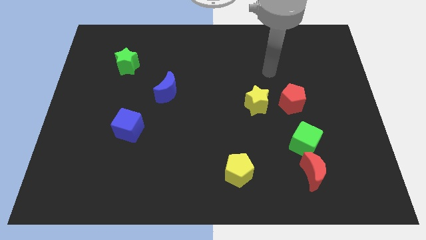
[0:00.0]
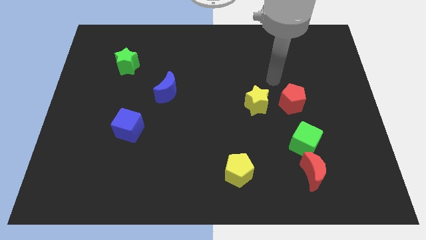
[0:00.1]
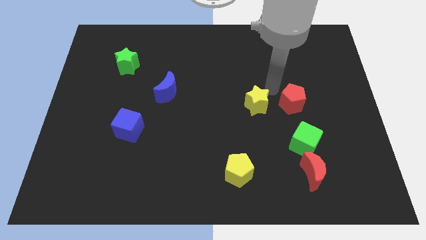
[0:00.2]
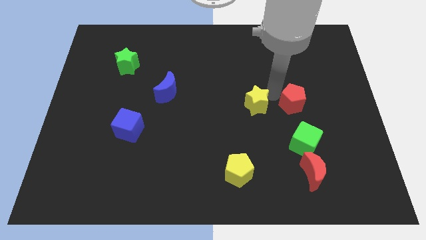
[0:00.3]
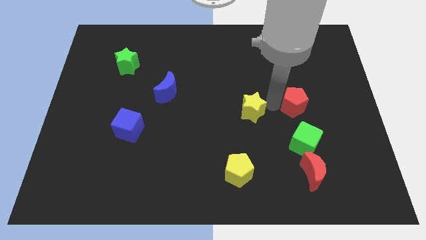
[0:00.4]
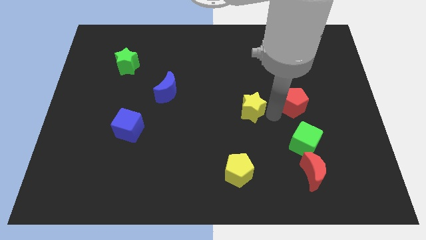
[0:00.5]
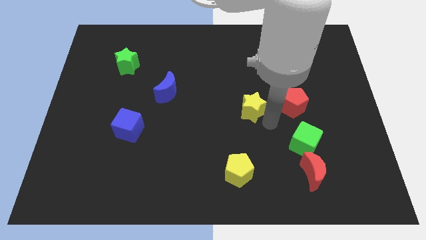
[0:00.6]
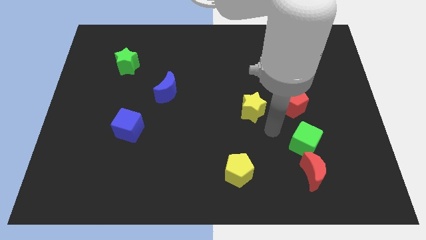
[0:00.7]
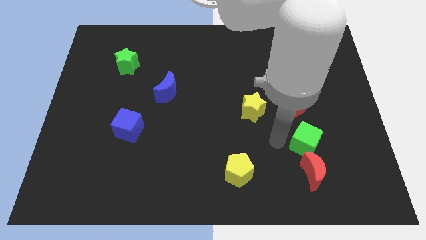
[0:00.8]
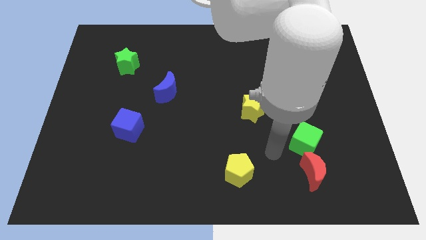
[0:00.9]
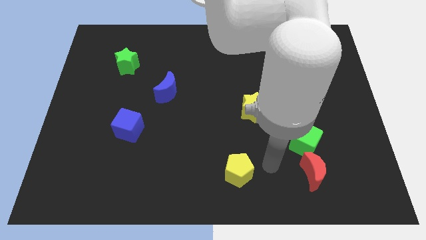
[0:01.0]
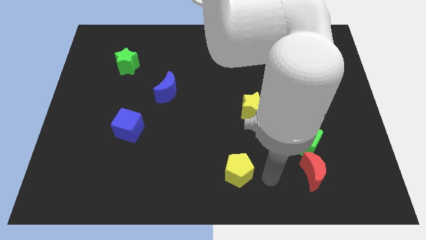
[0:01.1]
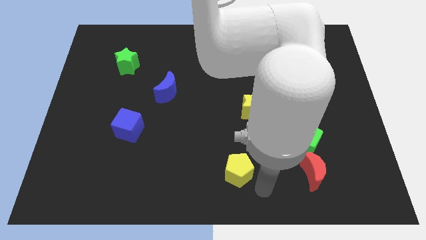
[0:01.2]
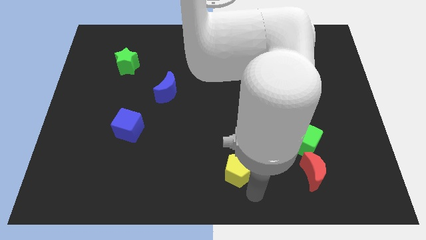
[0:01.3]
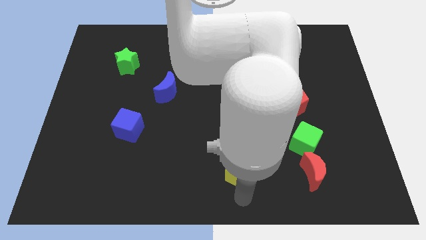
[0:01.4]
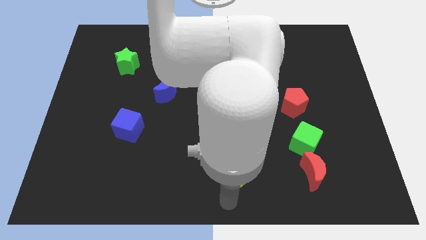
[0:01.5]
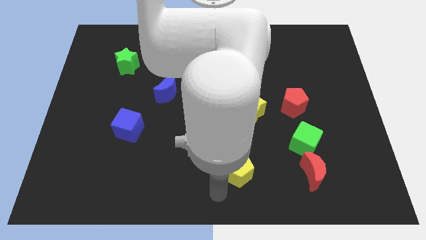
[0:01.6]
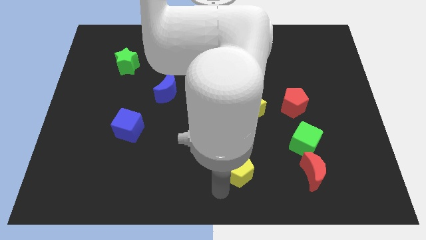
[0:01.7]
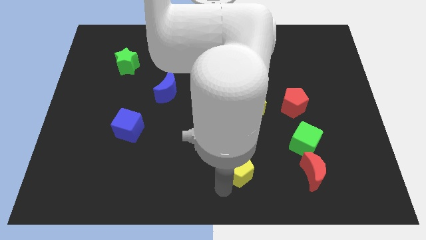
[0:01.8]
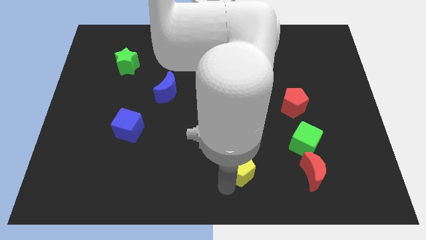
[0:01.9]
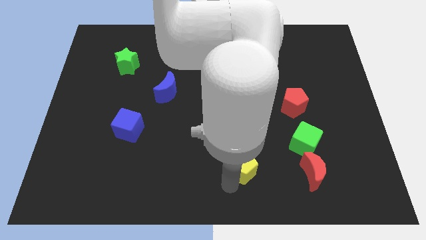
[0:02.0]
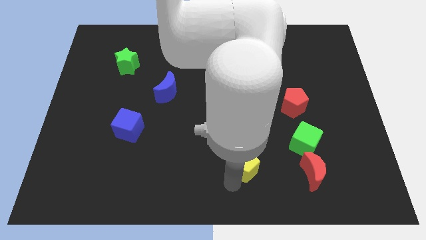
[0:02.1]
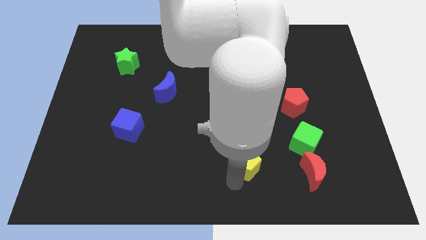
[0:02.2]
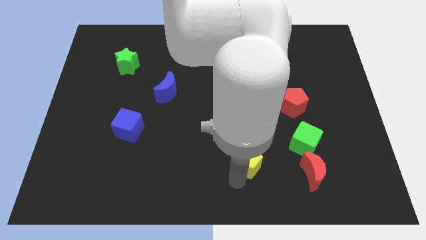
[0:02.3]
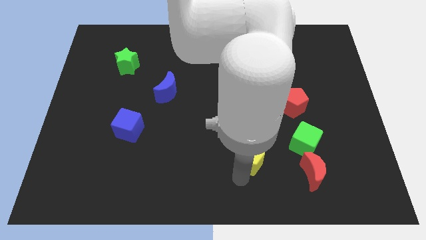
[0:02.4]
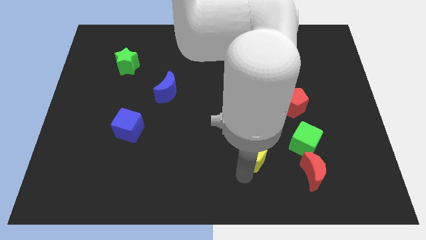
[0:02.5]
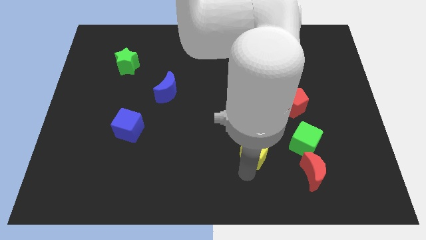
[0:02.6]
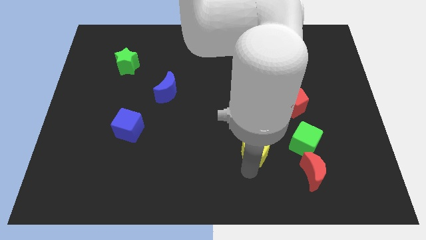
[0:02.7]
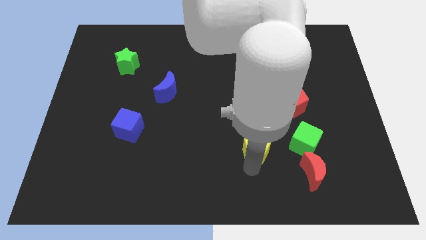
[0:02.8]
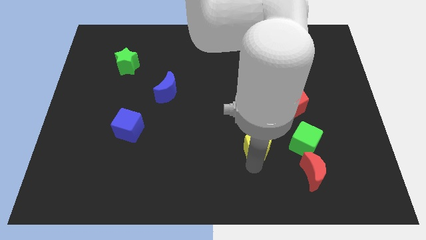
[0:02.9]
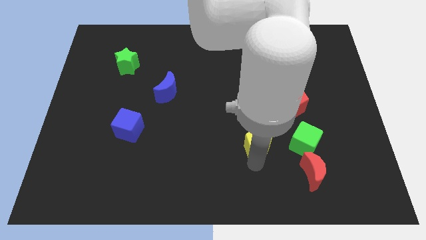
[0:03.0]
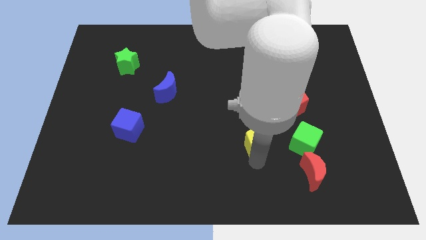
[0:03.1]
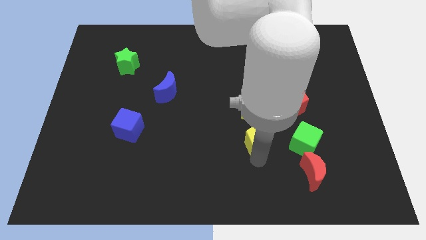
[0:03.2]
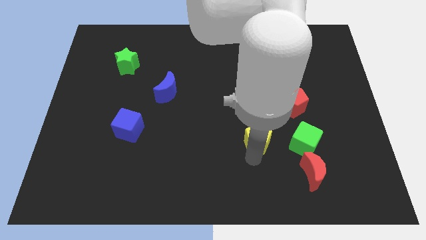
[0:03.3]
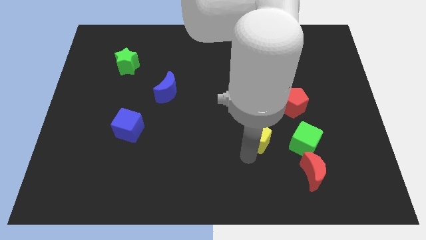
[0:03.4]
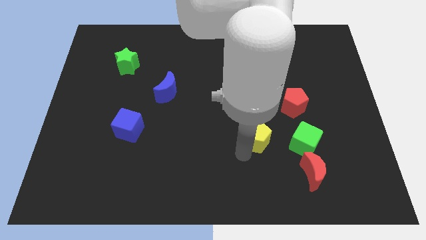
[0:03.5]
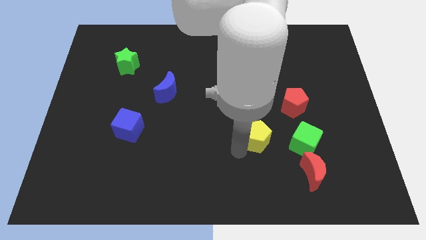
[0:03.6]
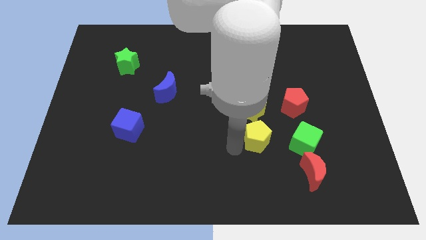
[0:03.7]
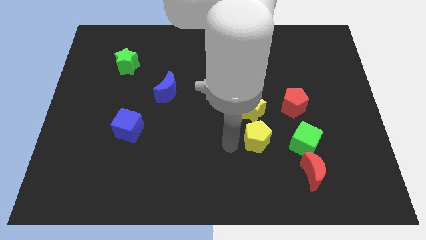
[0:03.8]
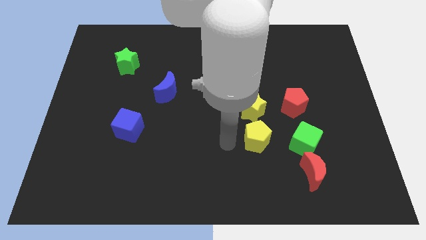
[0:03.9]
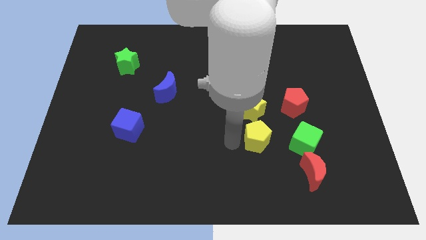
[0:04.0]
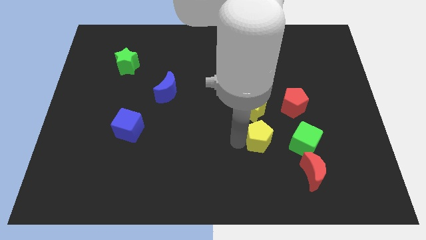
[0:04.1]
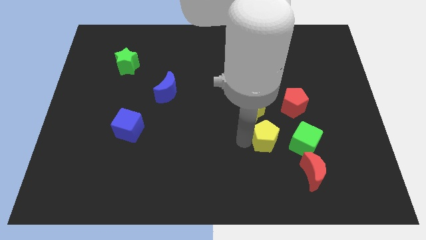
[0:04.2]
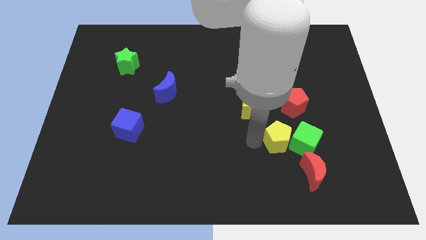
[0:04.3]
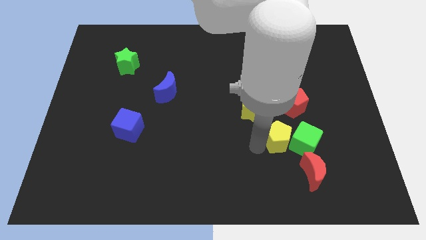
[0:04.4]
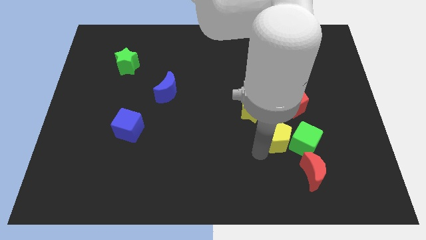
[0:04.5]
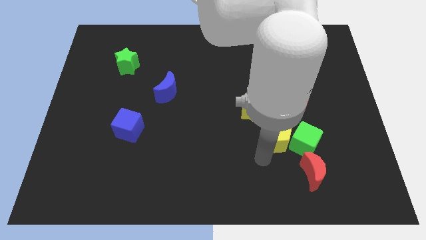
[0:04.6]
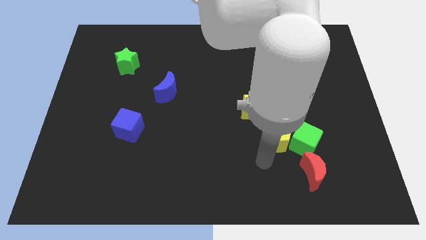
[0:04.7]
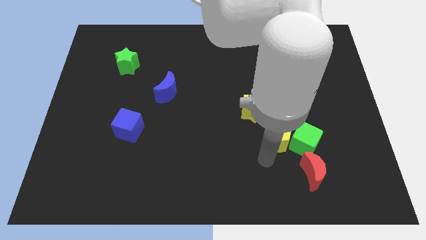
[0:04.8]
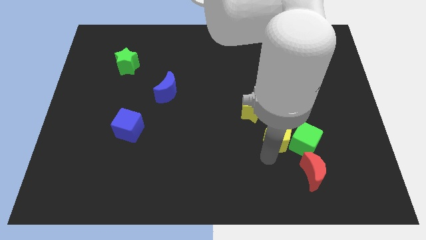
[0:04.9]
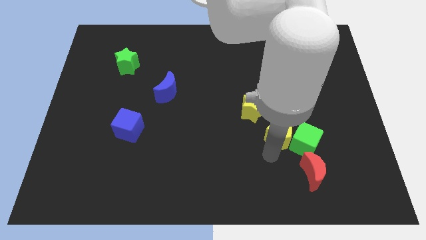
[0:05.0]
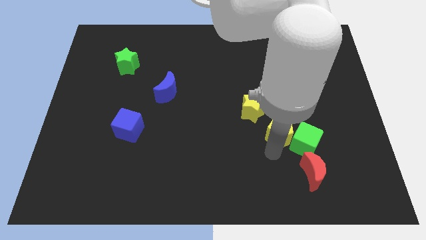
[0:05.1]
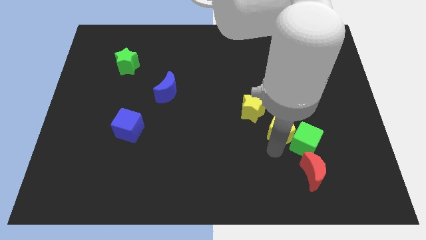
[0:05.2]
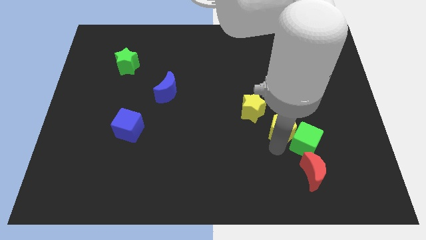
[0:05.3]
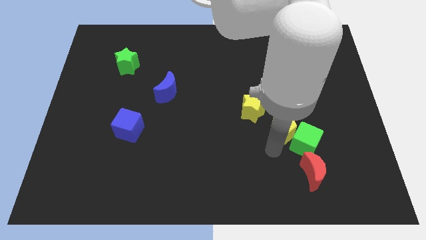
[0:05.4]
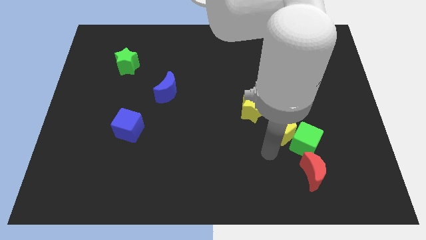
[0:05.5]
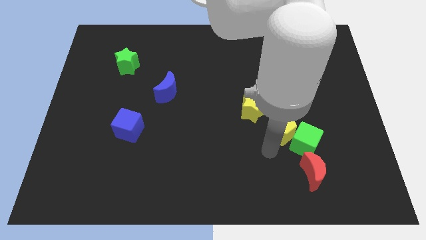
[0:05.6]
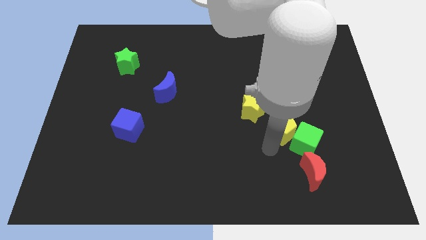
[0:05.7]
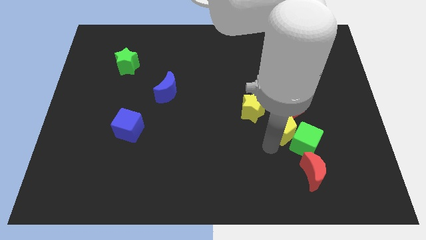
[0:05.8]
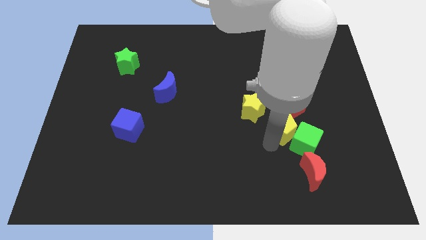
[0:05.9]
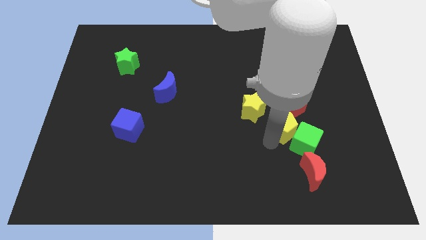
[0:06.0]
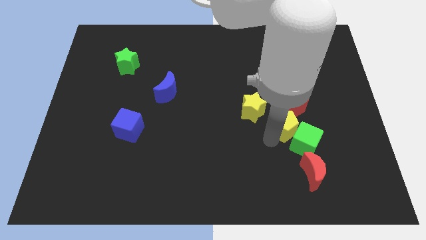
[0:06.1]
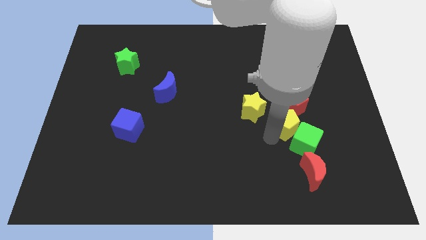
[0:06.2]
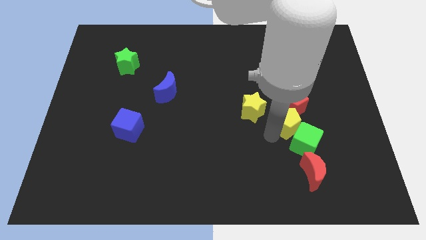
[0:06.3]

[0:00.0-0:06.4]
move the yellow pentagon close to the red pentagon

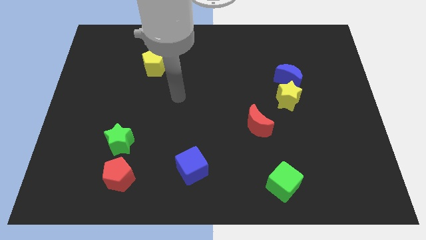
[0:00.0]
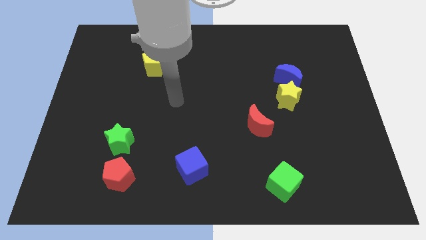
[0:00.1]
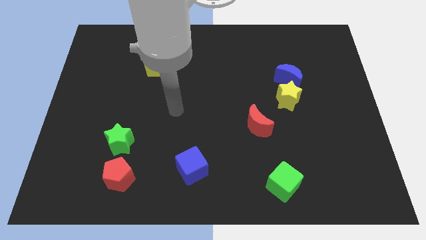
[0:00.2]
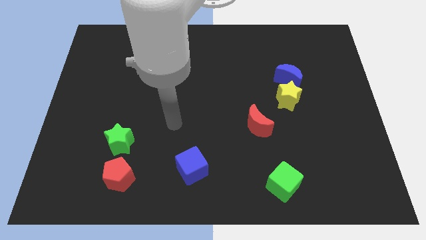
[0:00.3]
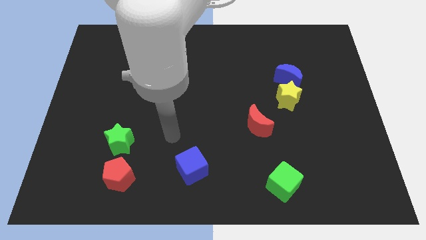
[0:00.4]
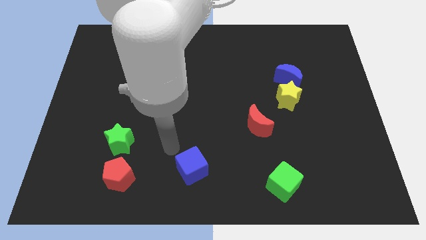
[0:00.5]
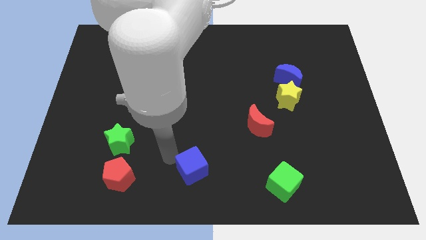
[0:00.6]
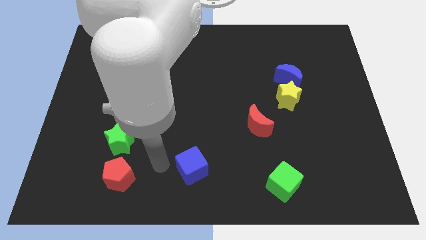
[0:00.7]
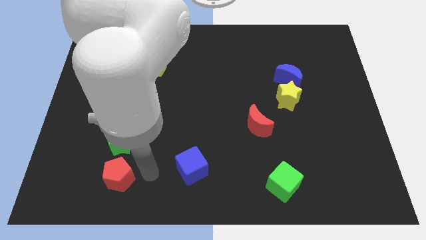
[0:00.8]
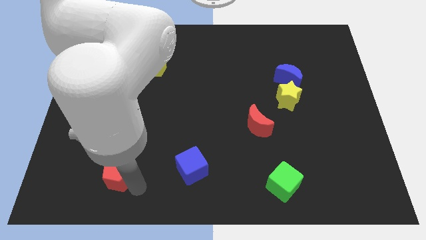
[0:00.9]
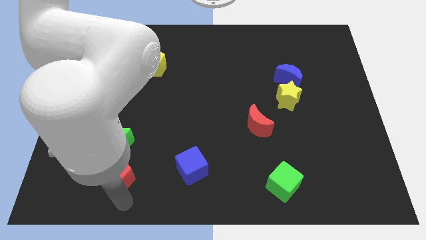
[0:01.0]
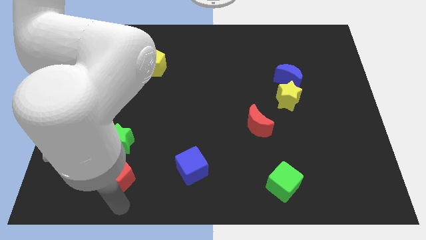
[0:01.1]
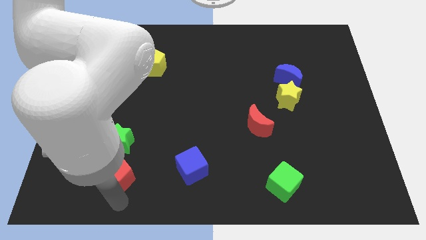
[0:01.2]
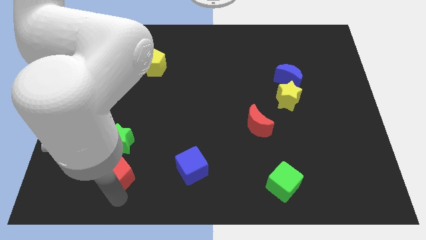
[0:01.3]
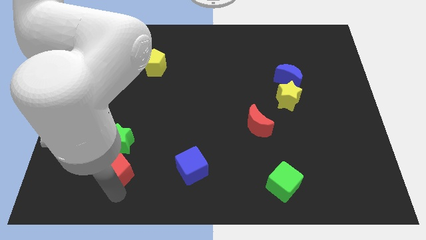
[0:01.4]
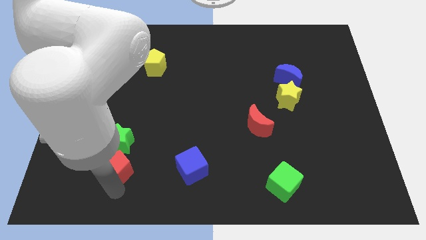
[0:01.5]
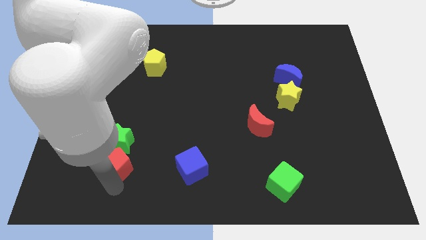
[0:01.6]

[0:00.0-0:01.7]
move the red pentagon close to the green star
